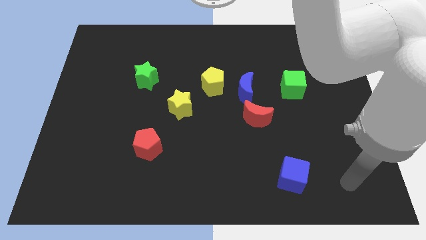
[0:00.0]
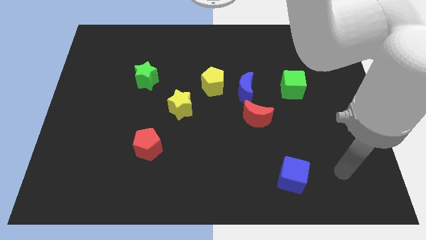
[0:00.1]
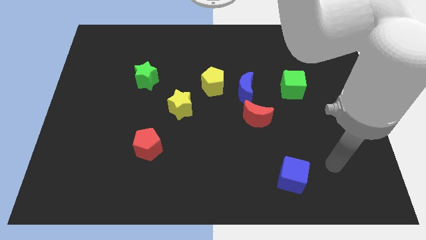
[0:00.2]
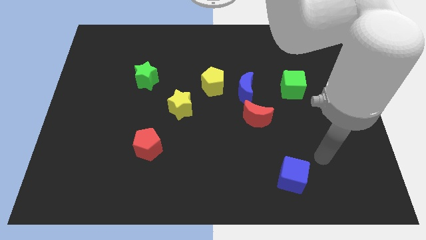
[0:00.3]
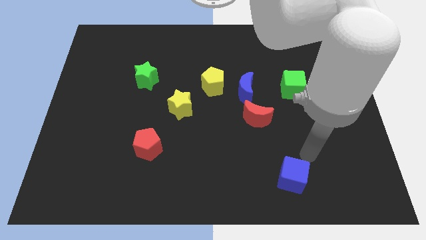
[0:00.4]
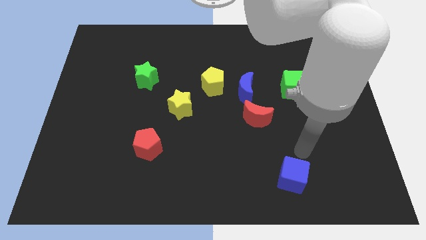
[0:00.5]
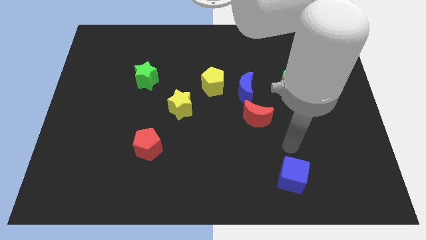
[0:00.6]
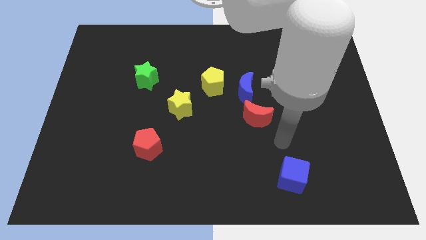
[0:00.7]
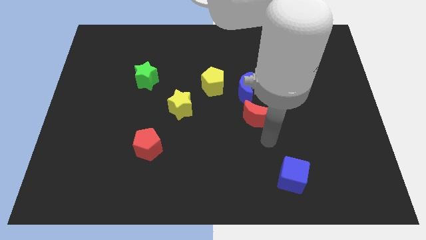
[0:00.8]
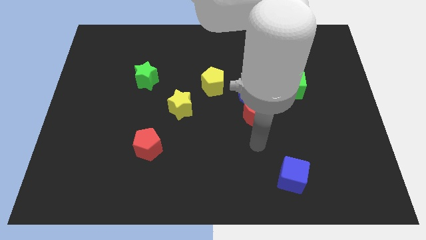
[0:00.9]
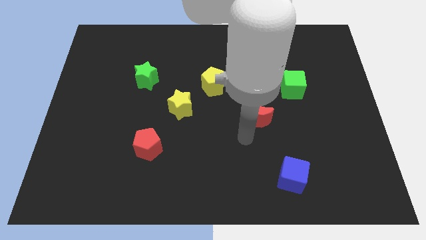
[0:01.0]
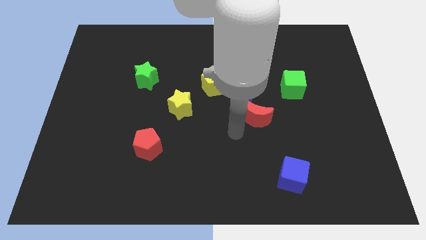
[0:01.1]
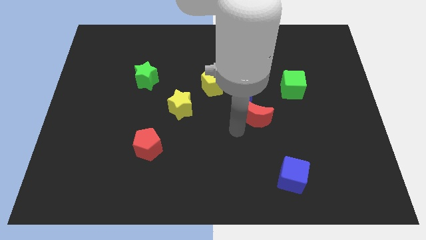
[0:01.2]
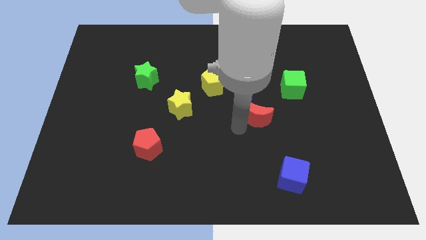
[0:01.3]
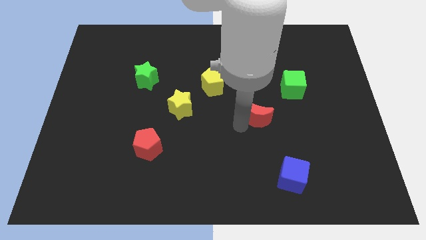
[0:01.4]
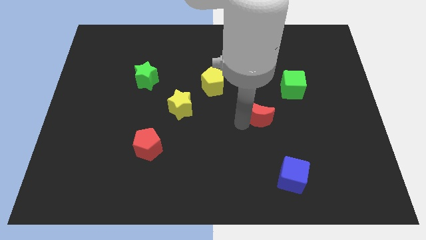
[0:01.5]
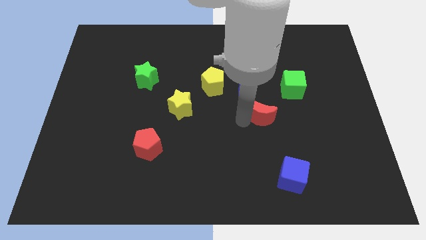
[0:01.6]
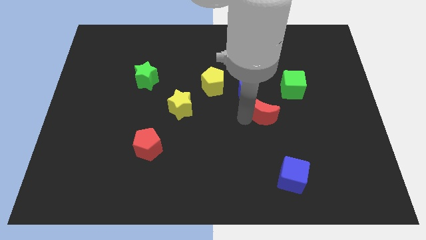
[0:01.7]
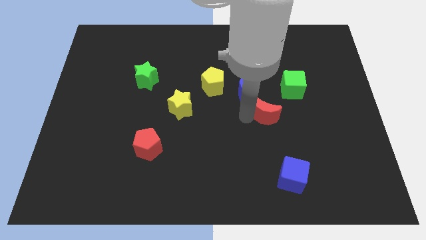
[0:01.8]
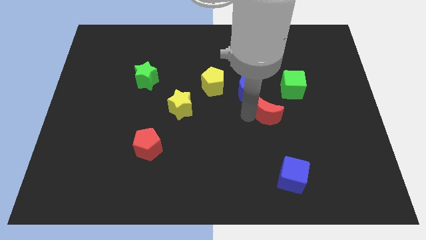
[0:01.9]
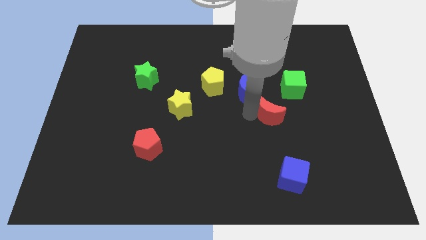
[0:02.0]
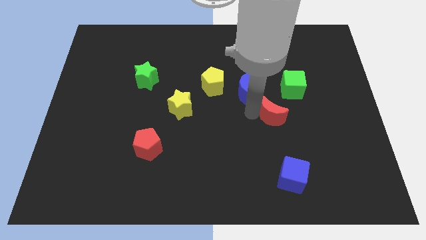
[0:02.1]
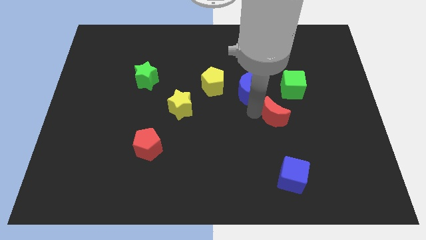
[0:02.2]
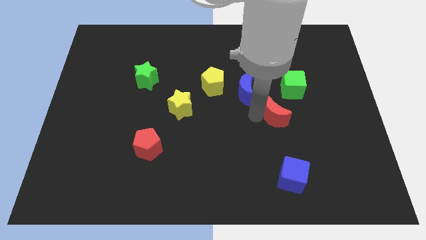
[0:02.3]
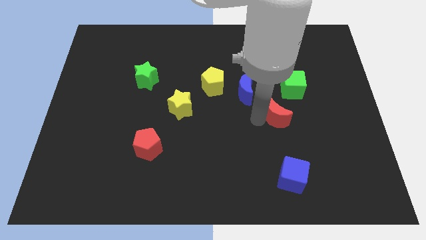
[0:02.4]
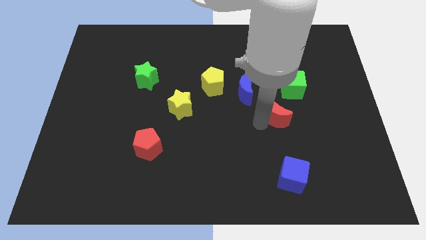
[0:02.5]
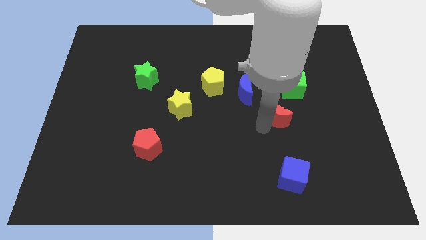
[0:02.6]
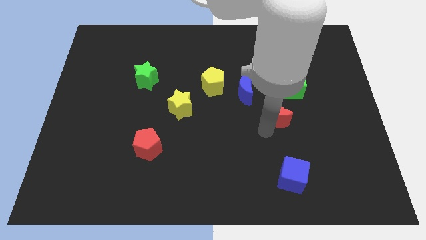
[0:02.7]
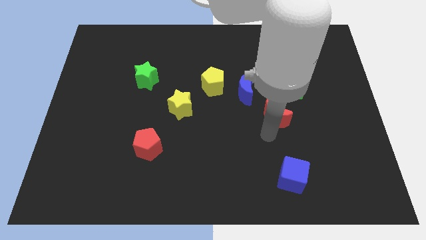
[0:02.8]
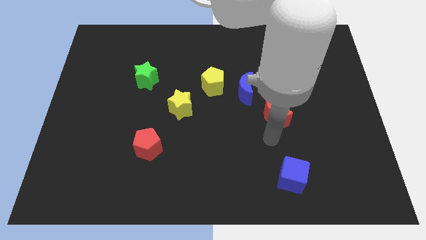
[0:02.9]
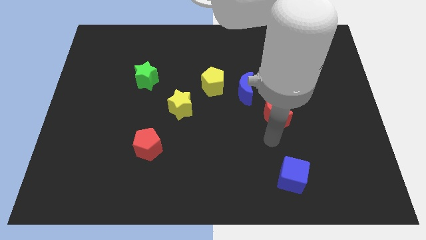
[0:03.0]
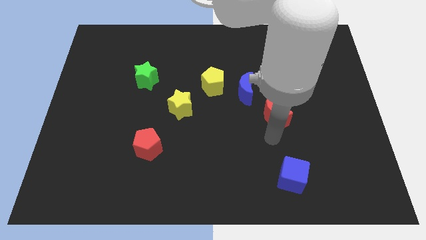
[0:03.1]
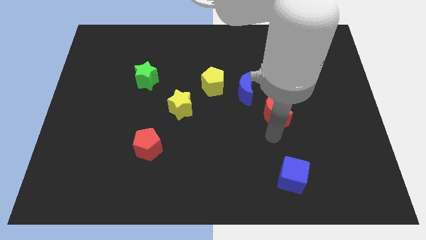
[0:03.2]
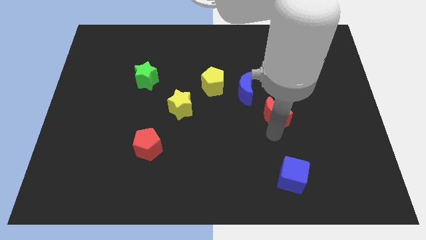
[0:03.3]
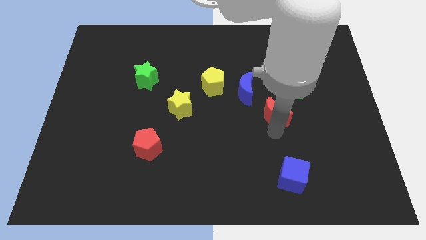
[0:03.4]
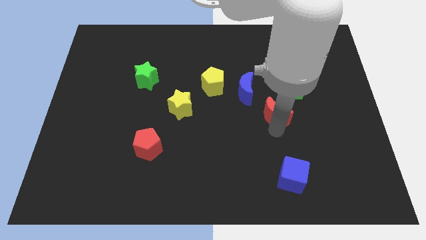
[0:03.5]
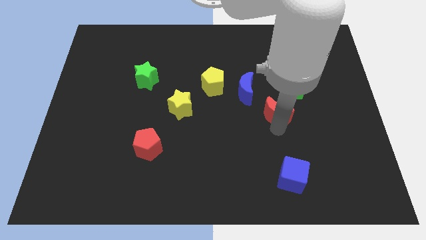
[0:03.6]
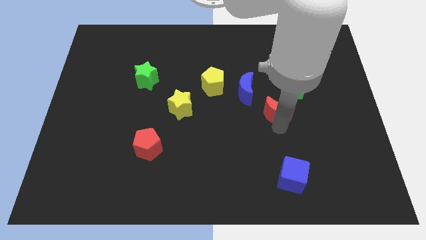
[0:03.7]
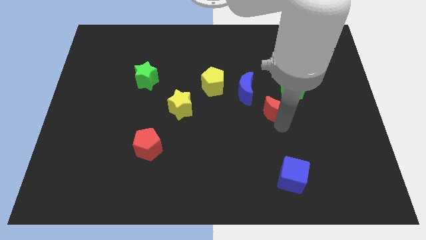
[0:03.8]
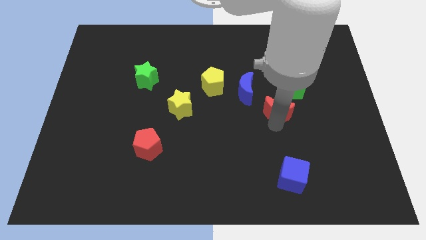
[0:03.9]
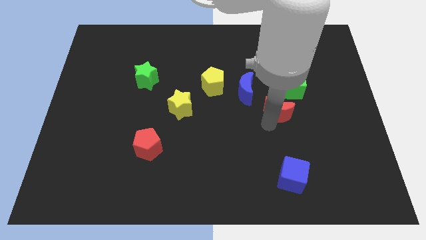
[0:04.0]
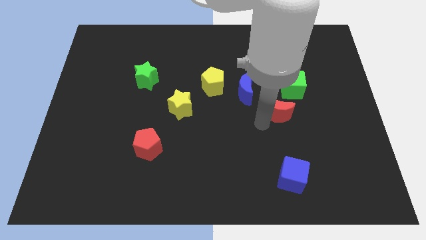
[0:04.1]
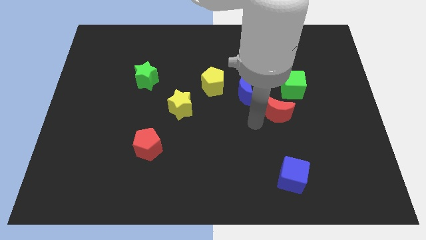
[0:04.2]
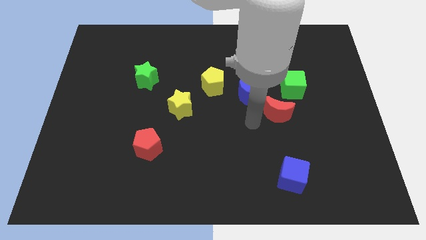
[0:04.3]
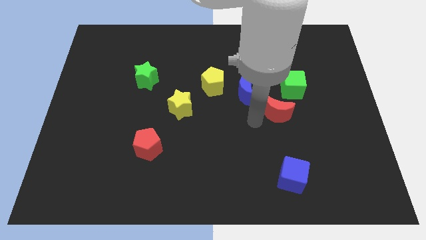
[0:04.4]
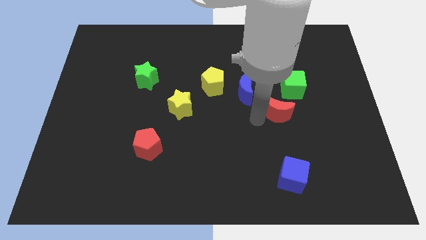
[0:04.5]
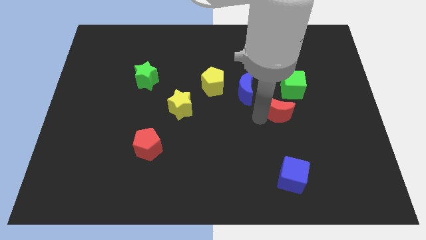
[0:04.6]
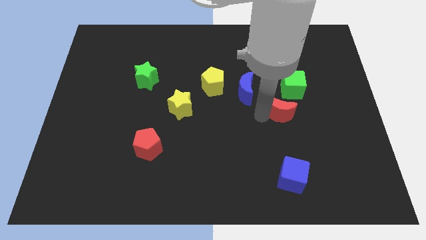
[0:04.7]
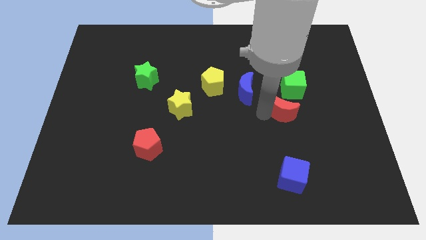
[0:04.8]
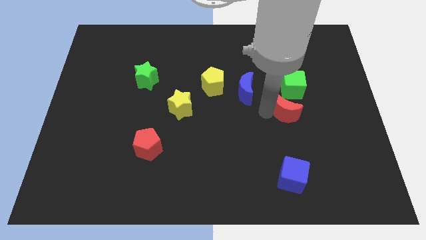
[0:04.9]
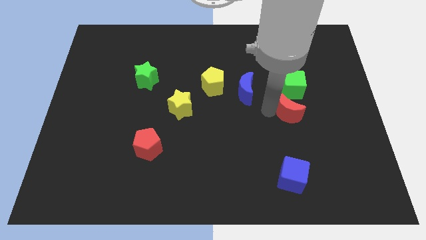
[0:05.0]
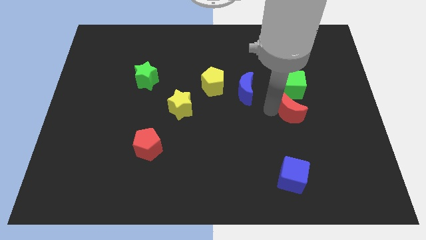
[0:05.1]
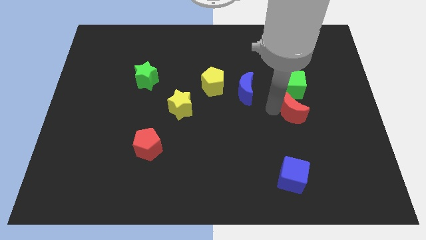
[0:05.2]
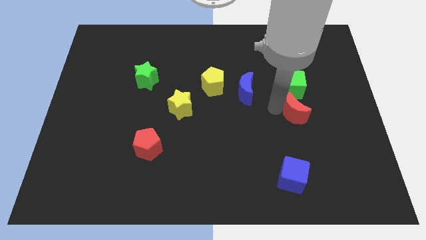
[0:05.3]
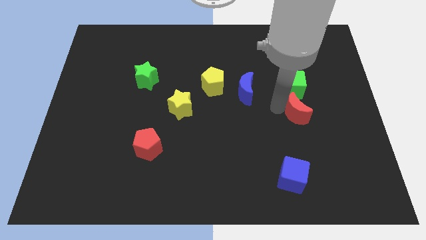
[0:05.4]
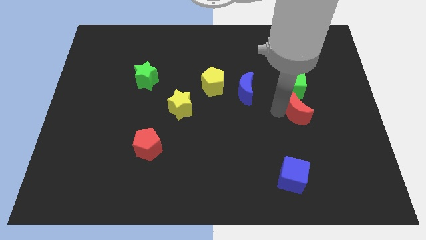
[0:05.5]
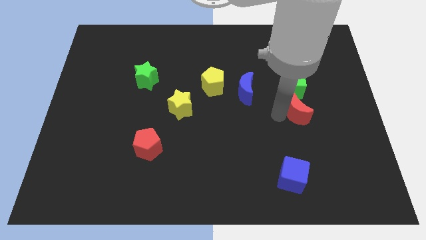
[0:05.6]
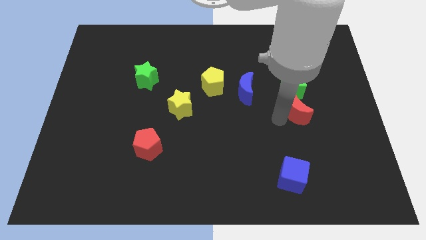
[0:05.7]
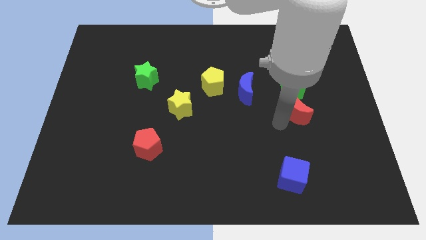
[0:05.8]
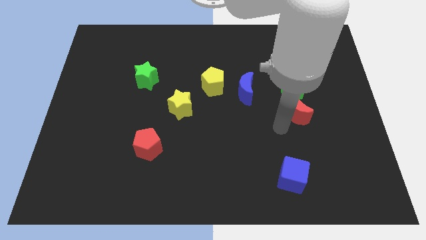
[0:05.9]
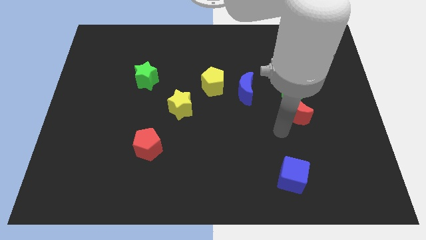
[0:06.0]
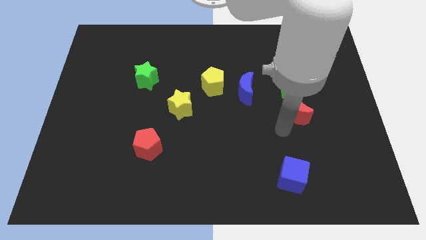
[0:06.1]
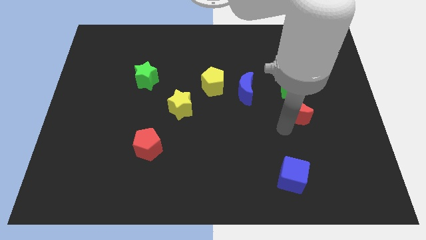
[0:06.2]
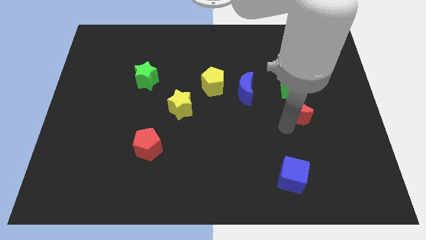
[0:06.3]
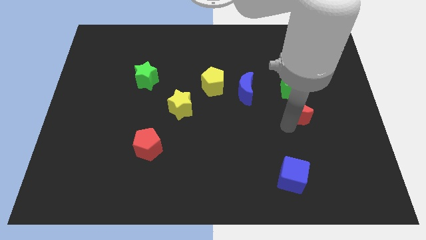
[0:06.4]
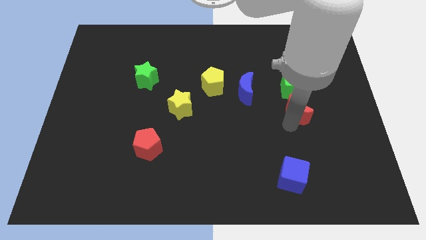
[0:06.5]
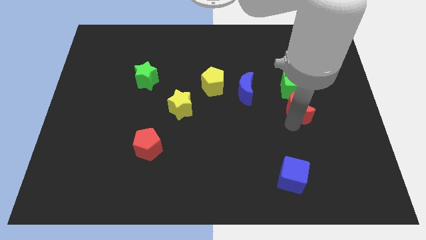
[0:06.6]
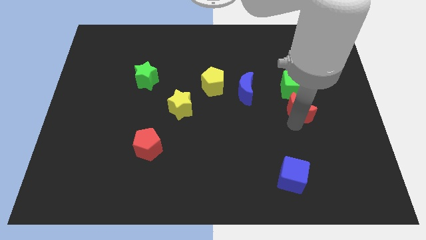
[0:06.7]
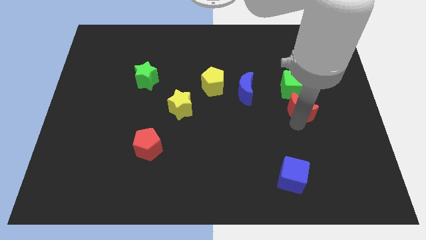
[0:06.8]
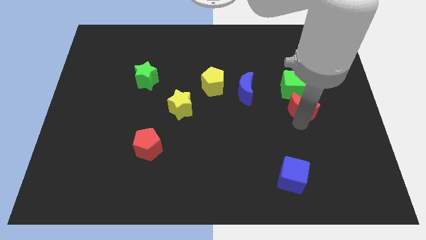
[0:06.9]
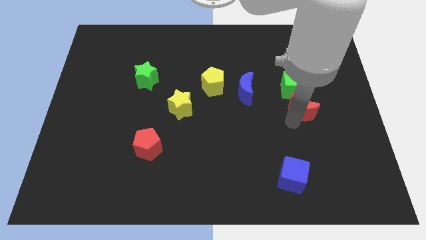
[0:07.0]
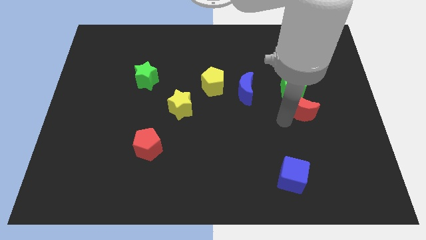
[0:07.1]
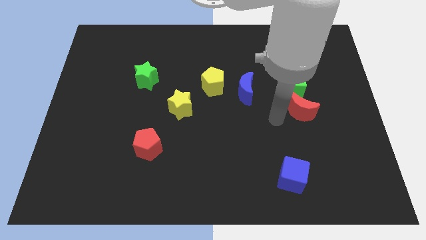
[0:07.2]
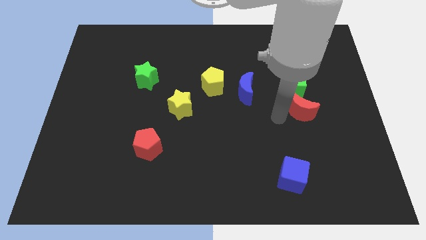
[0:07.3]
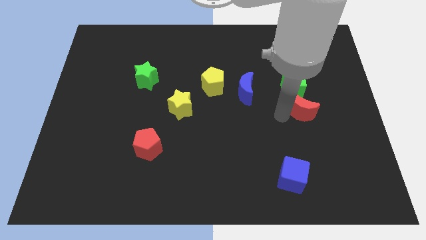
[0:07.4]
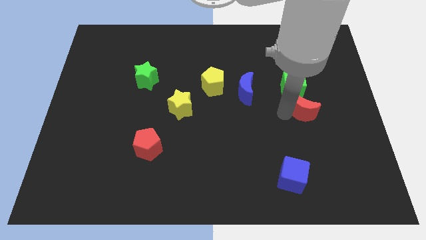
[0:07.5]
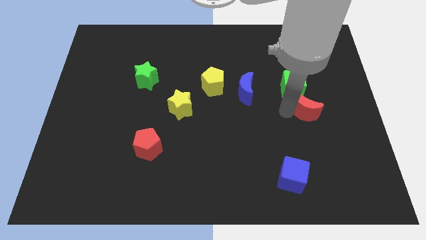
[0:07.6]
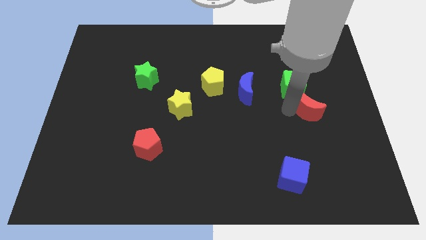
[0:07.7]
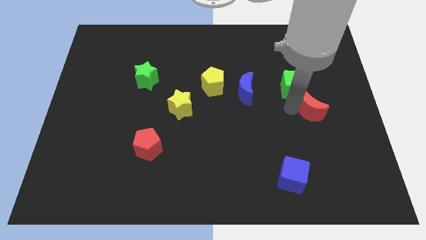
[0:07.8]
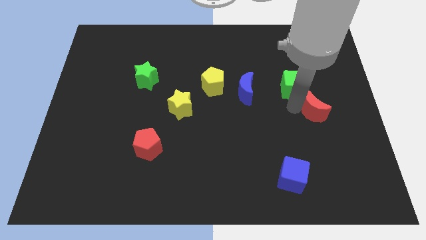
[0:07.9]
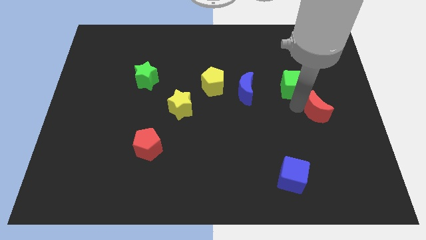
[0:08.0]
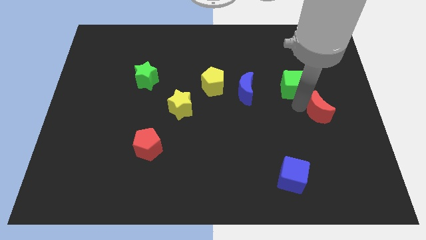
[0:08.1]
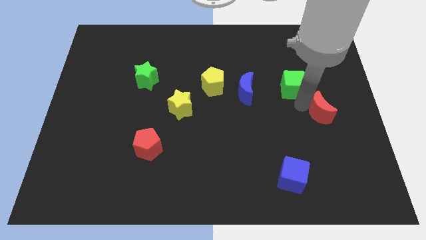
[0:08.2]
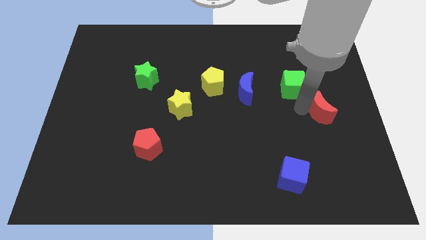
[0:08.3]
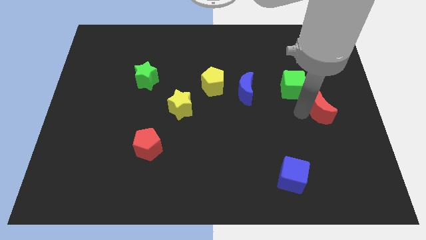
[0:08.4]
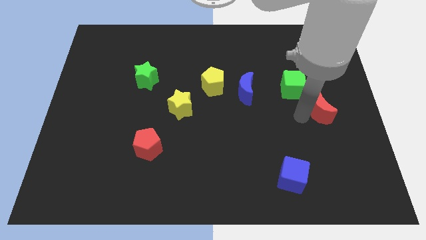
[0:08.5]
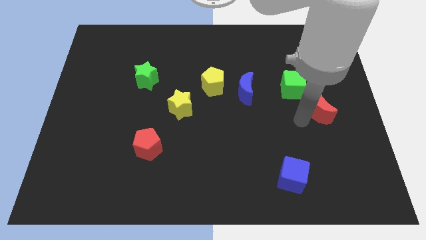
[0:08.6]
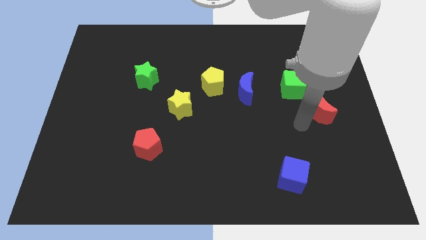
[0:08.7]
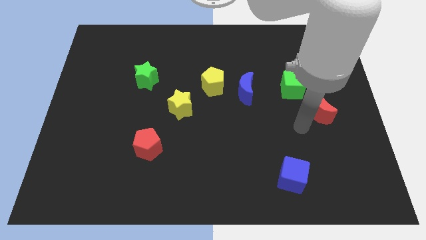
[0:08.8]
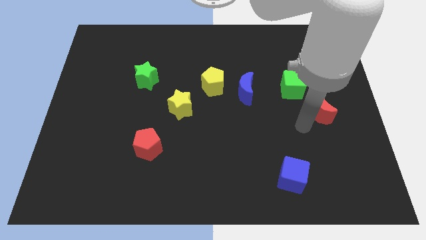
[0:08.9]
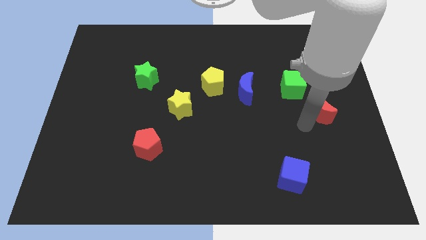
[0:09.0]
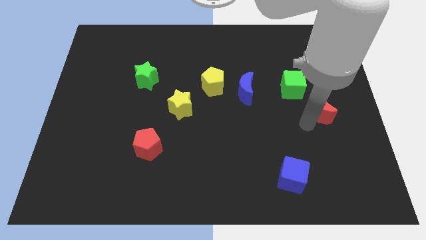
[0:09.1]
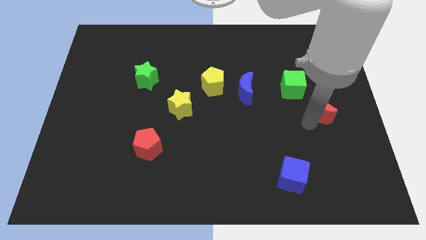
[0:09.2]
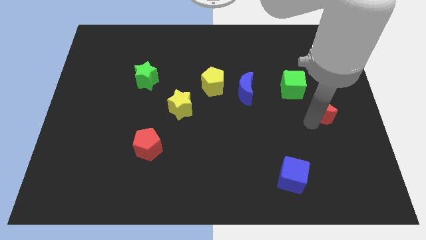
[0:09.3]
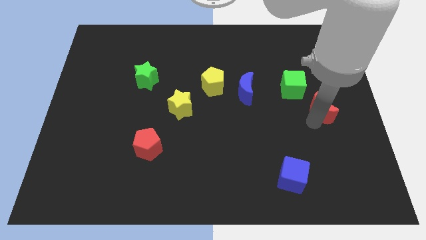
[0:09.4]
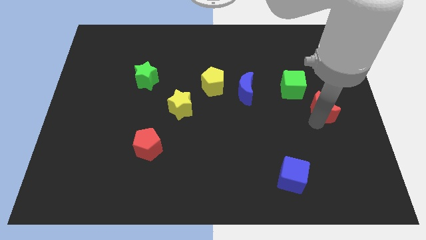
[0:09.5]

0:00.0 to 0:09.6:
put the red moon to the right side
